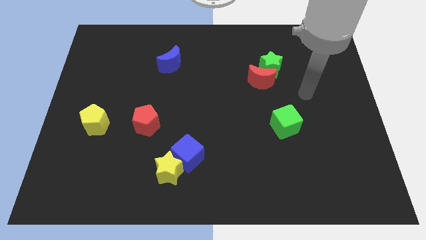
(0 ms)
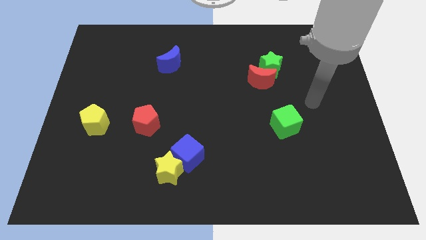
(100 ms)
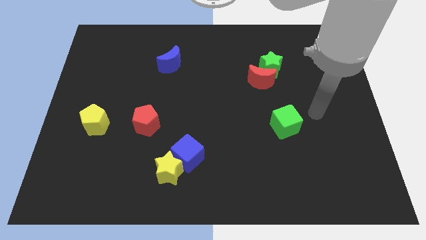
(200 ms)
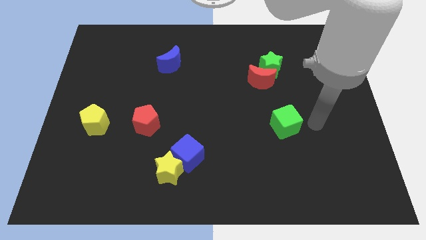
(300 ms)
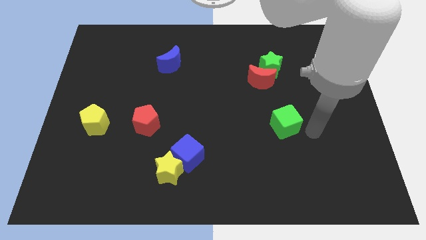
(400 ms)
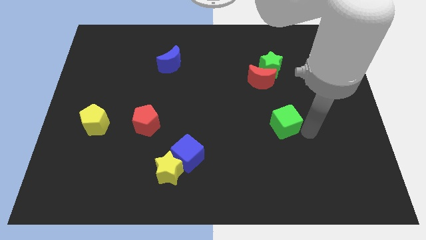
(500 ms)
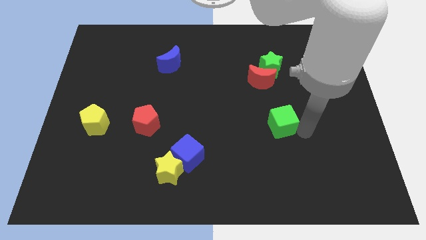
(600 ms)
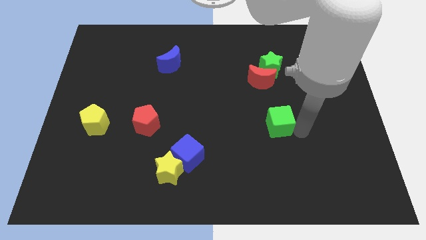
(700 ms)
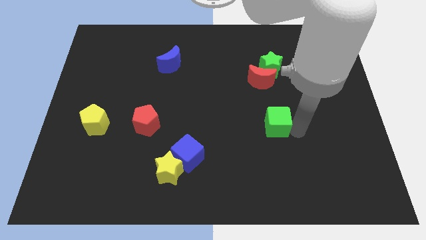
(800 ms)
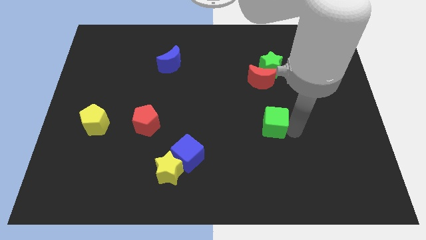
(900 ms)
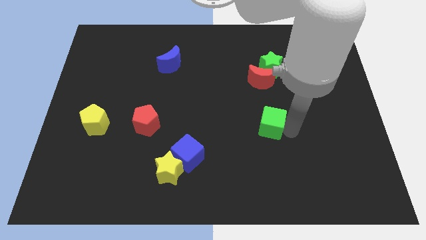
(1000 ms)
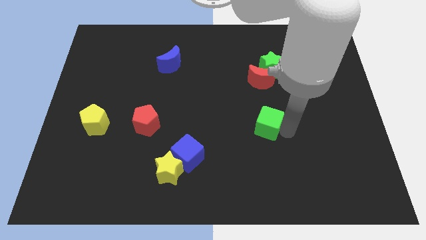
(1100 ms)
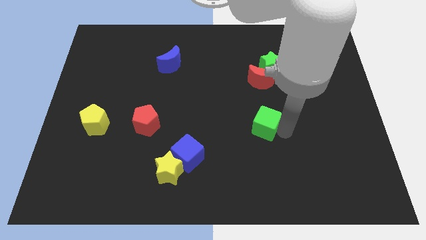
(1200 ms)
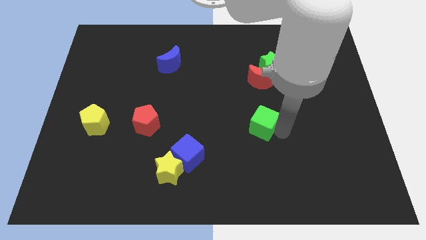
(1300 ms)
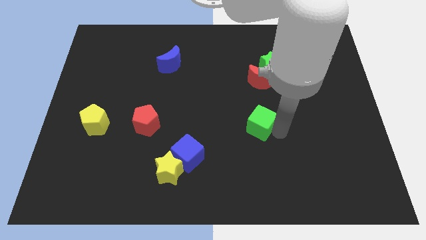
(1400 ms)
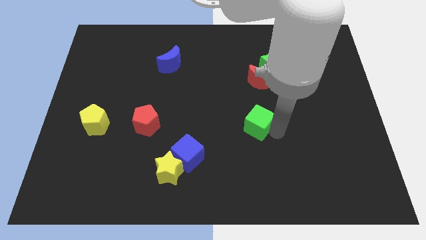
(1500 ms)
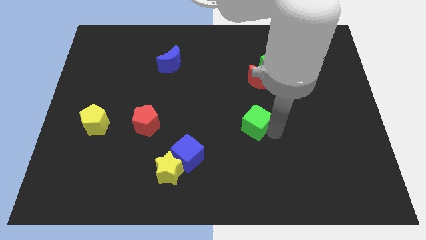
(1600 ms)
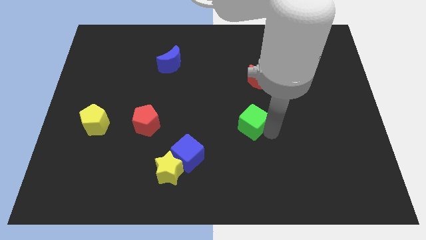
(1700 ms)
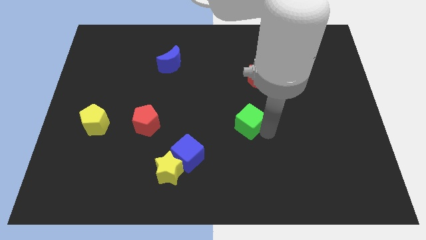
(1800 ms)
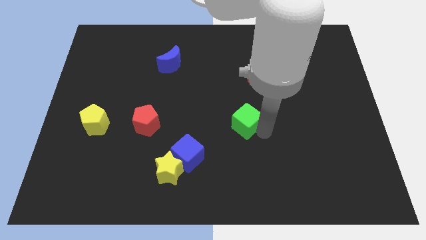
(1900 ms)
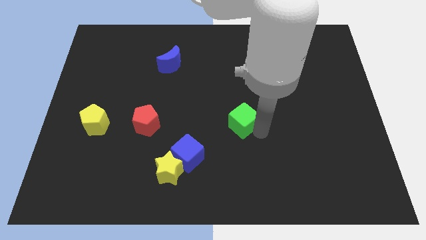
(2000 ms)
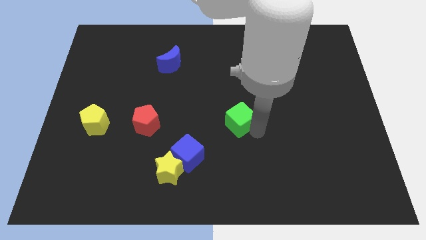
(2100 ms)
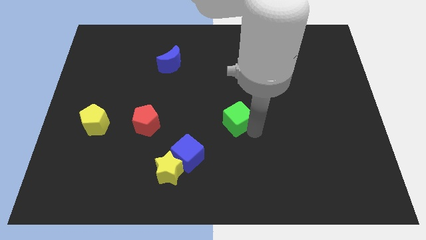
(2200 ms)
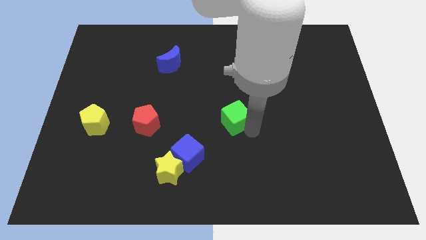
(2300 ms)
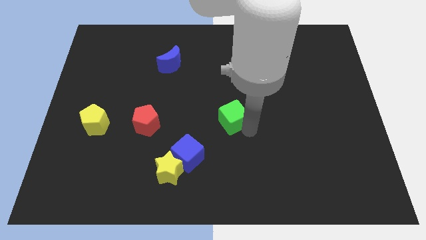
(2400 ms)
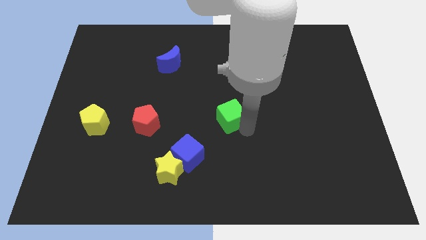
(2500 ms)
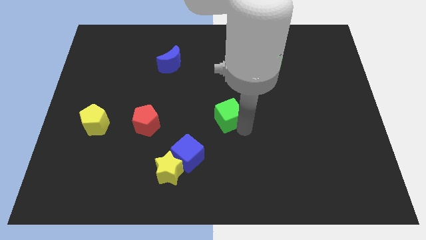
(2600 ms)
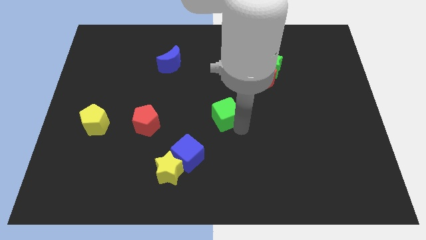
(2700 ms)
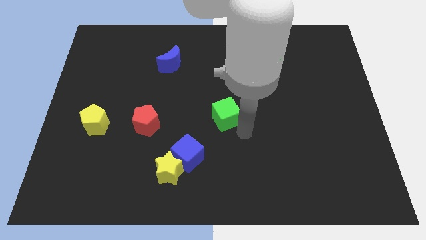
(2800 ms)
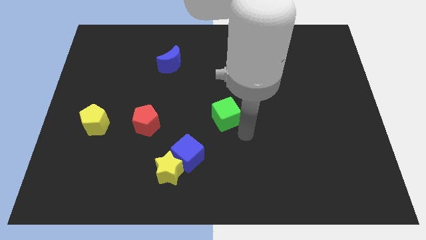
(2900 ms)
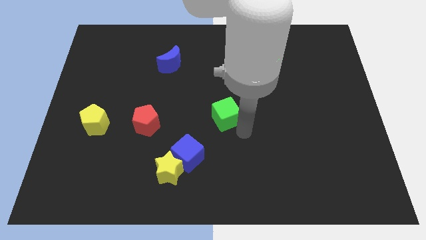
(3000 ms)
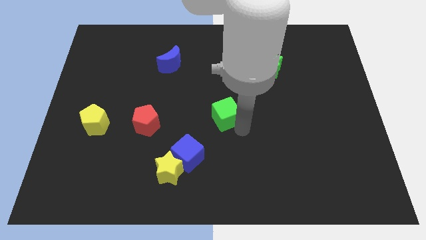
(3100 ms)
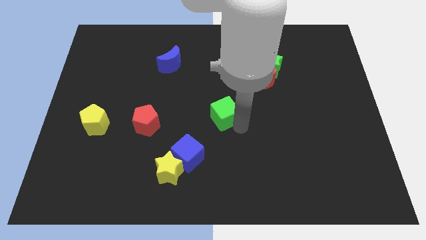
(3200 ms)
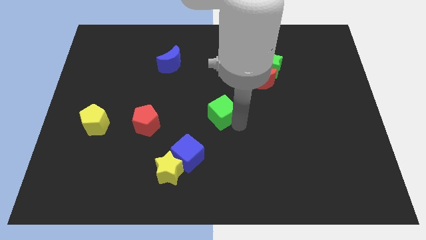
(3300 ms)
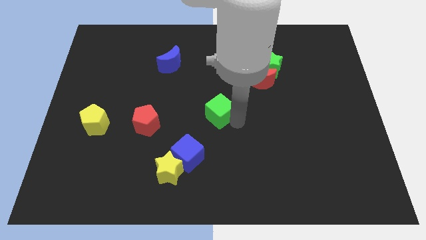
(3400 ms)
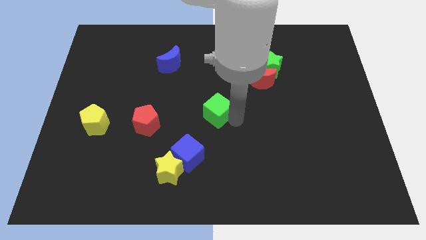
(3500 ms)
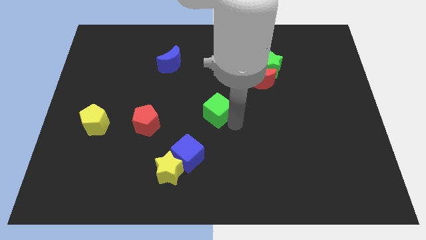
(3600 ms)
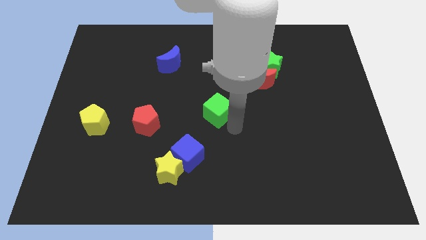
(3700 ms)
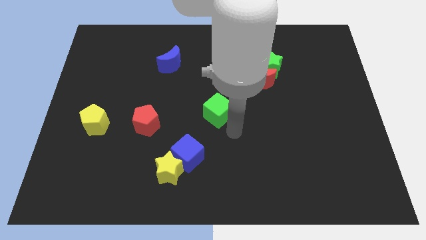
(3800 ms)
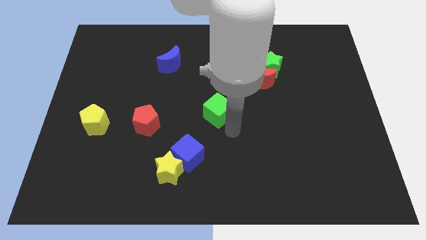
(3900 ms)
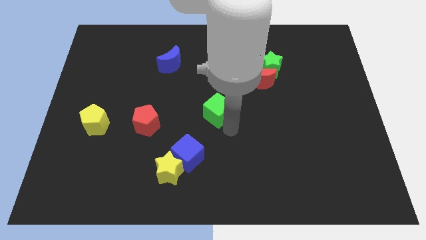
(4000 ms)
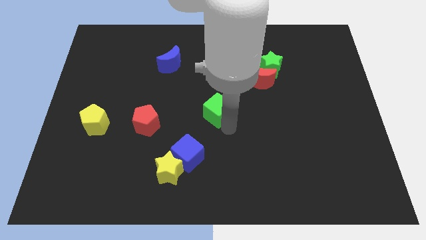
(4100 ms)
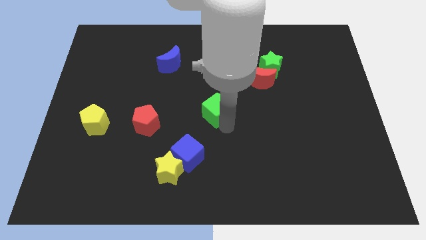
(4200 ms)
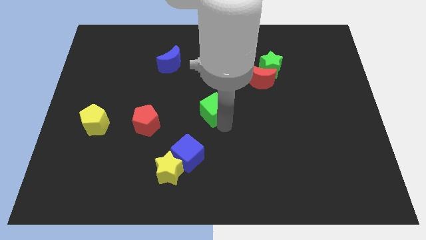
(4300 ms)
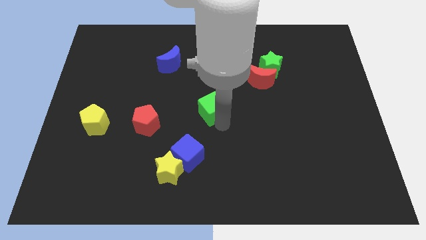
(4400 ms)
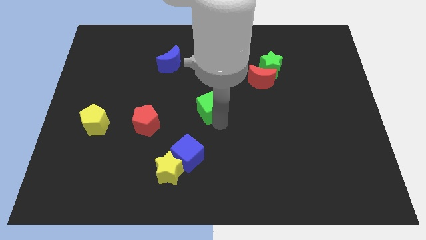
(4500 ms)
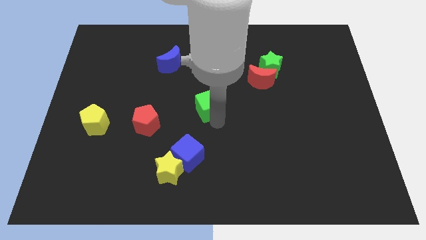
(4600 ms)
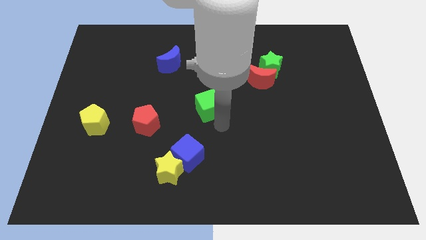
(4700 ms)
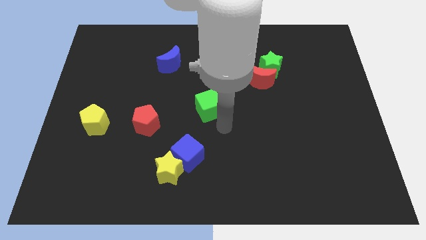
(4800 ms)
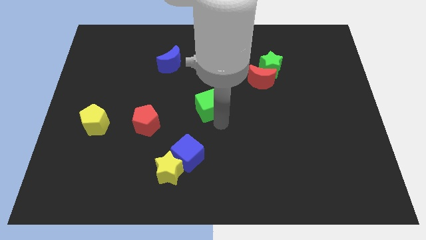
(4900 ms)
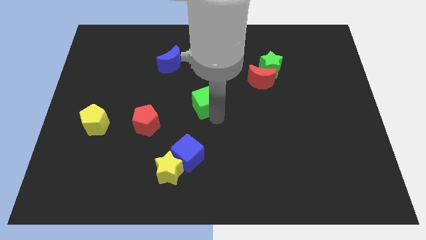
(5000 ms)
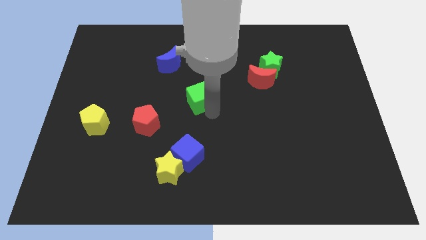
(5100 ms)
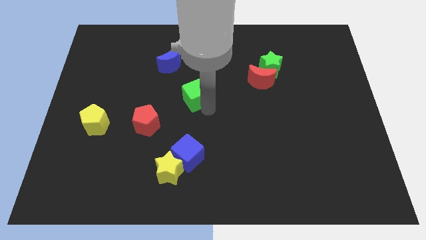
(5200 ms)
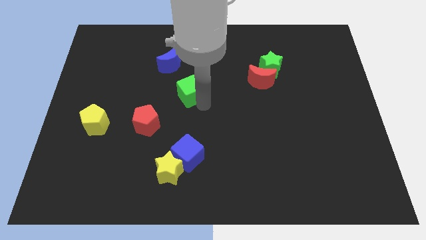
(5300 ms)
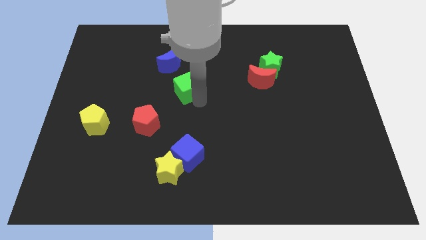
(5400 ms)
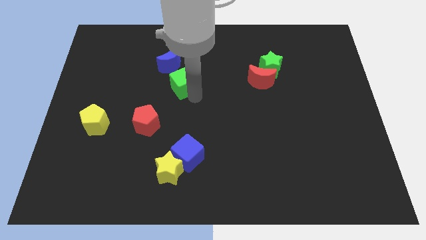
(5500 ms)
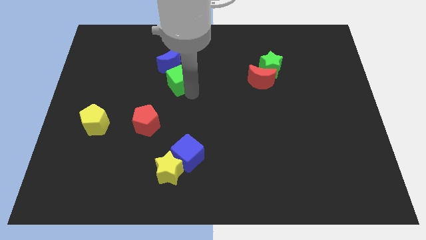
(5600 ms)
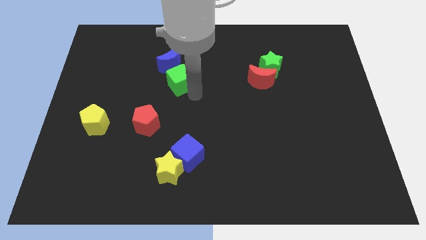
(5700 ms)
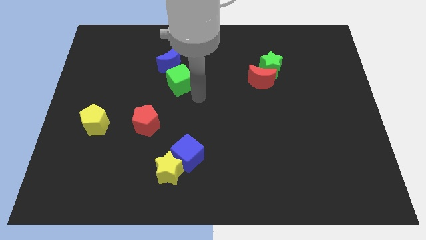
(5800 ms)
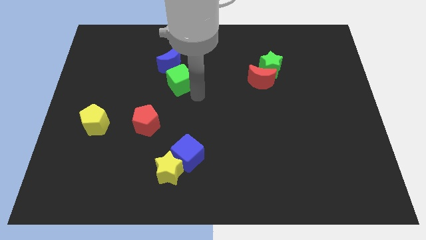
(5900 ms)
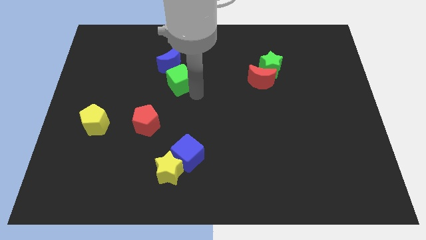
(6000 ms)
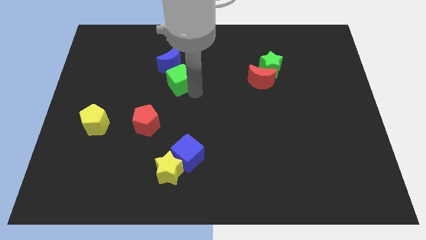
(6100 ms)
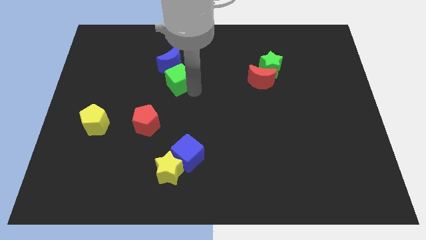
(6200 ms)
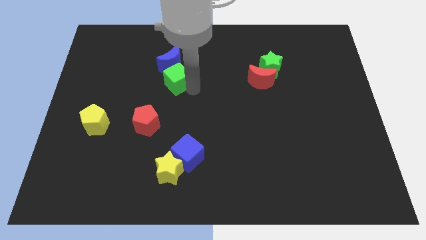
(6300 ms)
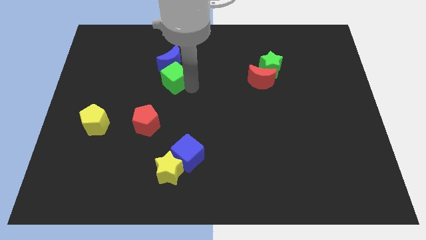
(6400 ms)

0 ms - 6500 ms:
move the green cube towards the blue moon

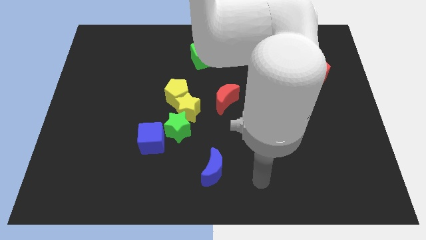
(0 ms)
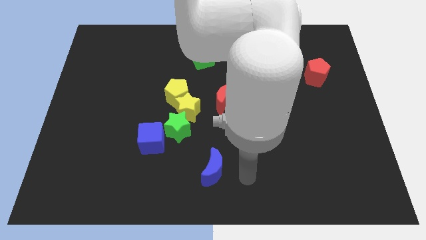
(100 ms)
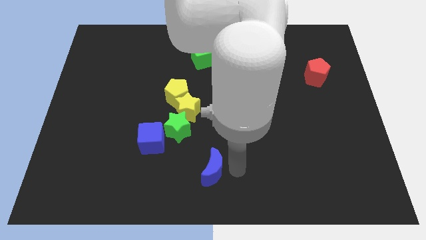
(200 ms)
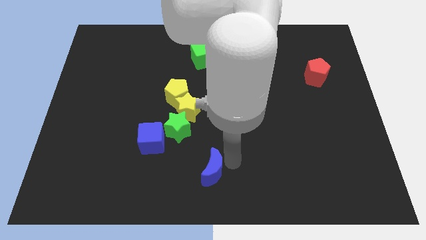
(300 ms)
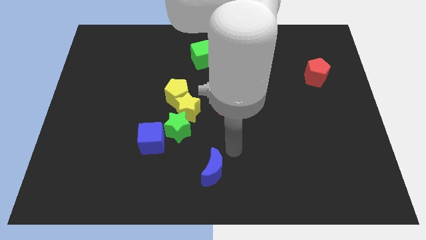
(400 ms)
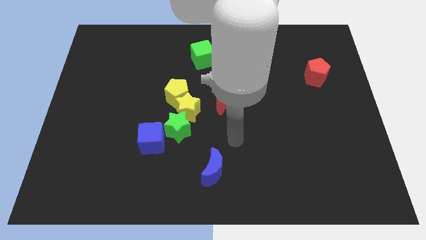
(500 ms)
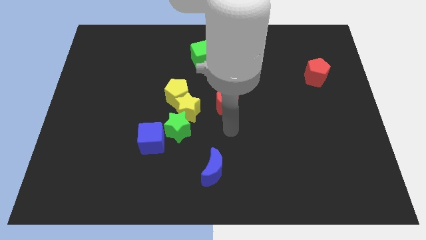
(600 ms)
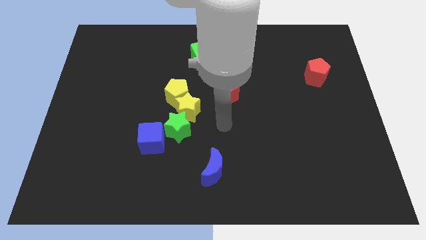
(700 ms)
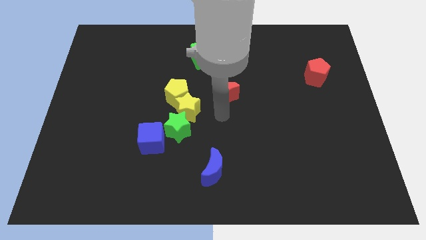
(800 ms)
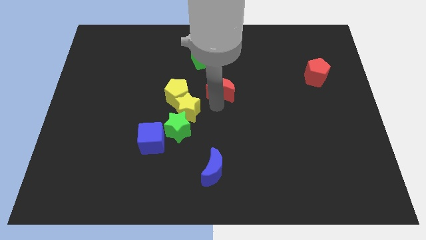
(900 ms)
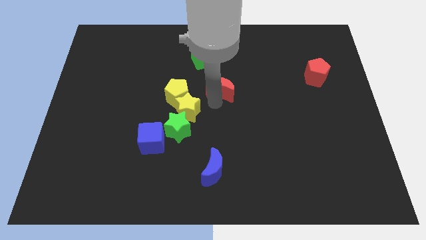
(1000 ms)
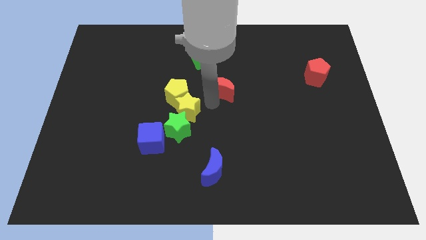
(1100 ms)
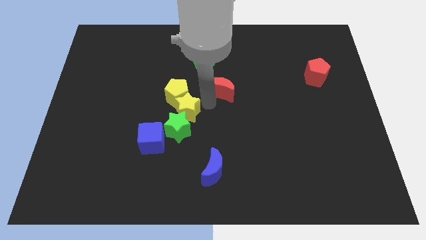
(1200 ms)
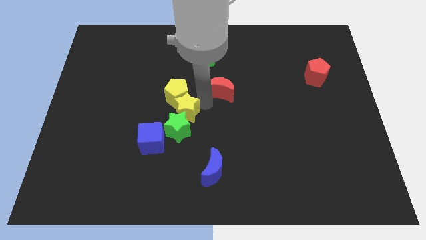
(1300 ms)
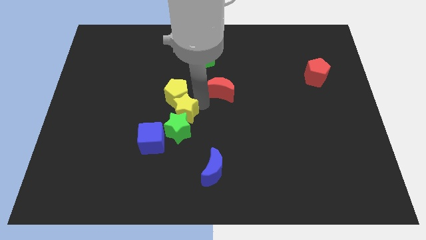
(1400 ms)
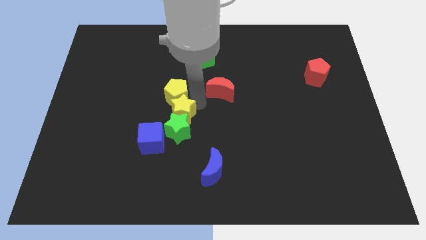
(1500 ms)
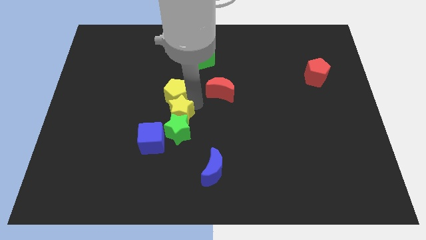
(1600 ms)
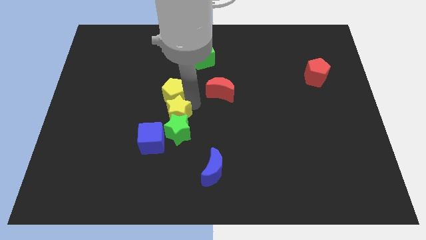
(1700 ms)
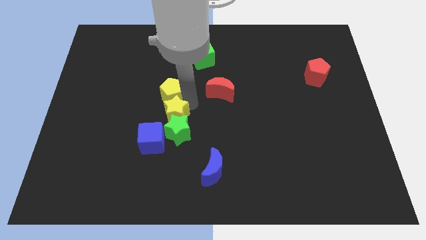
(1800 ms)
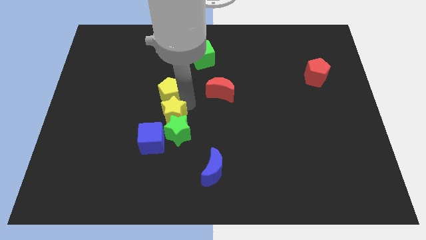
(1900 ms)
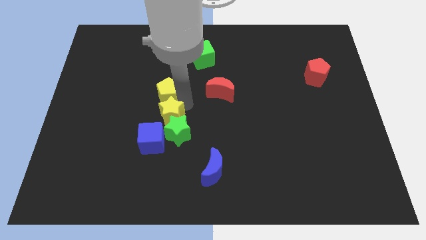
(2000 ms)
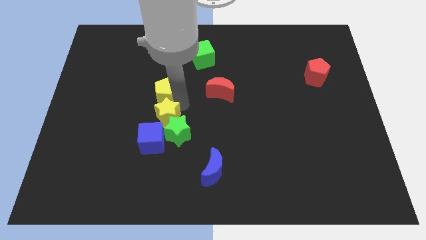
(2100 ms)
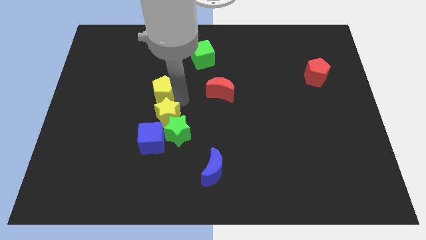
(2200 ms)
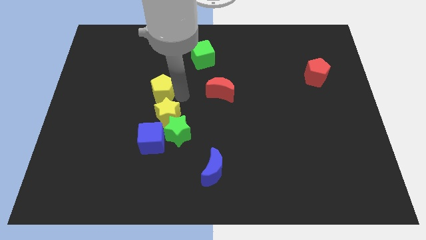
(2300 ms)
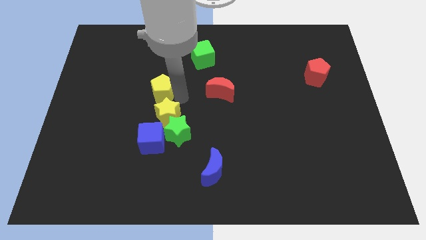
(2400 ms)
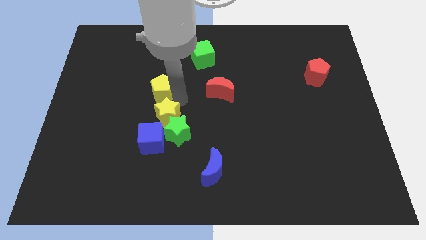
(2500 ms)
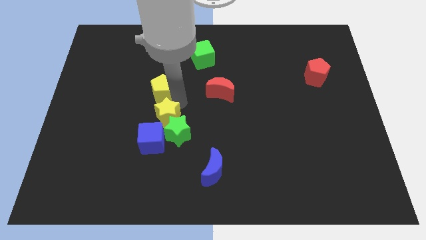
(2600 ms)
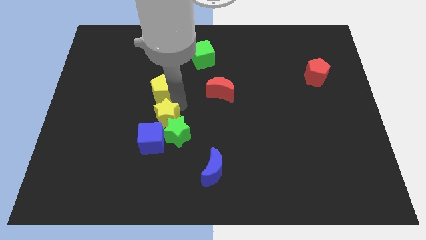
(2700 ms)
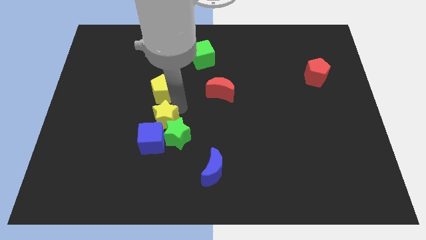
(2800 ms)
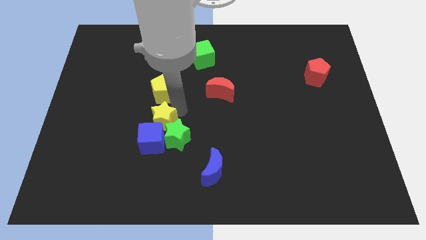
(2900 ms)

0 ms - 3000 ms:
push the yellow star close to the blue cube
